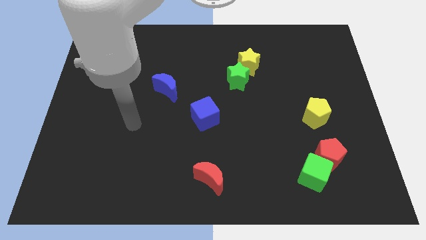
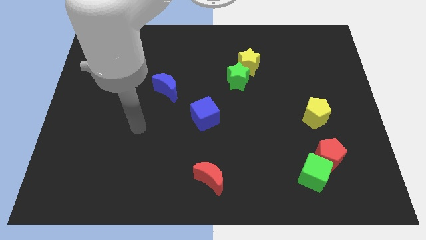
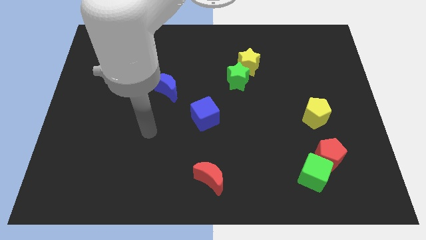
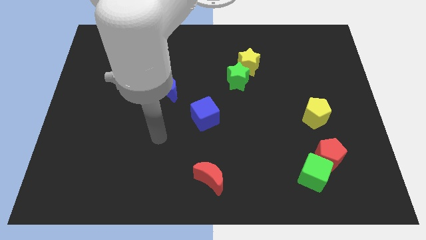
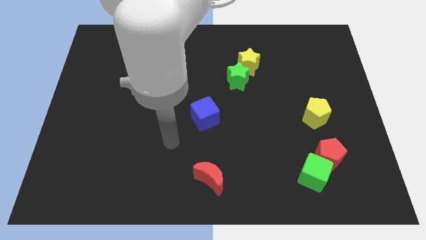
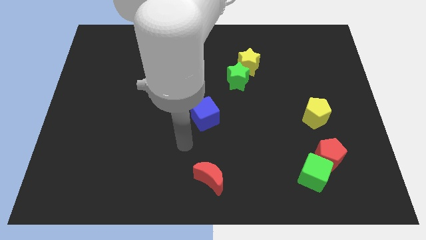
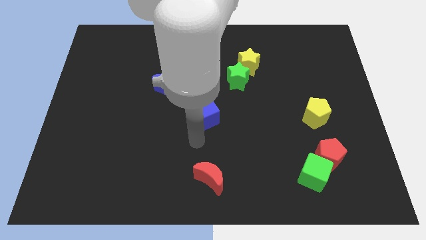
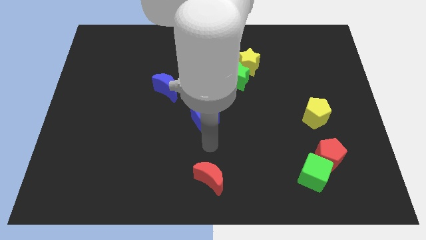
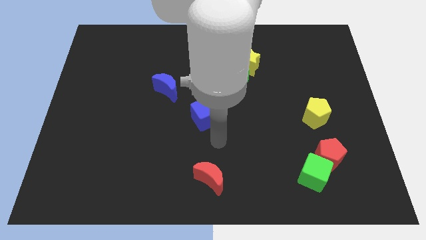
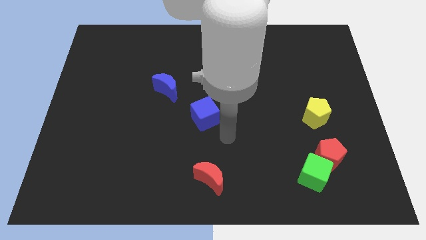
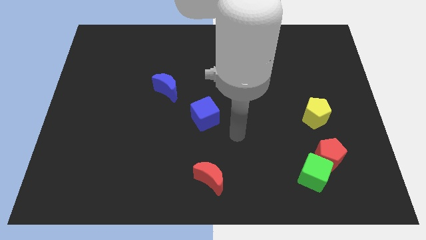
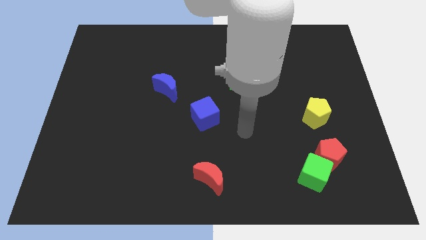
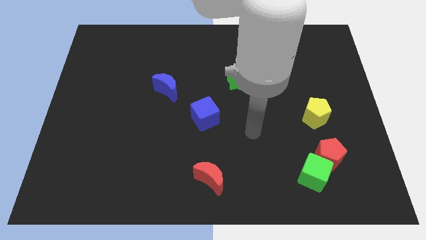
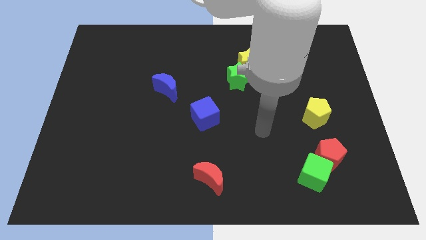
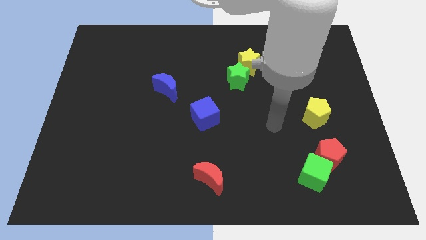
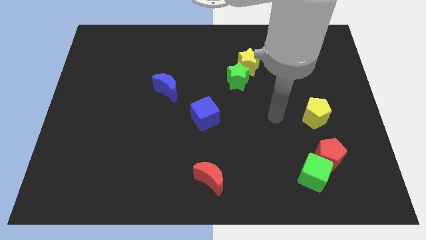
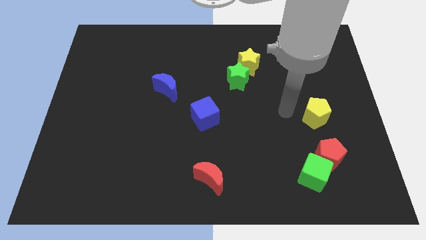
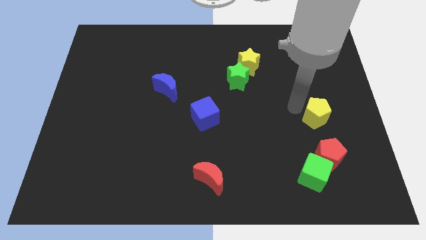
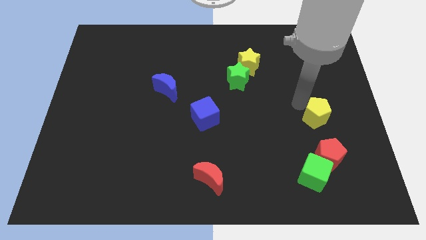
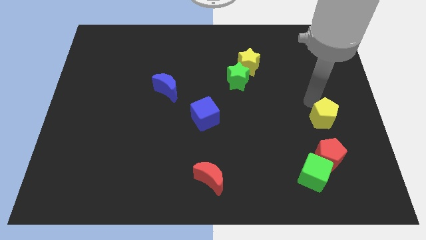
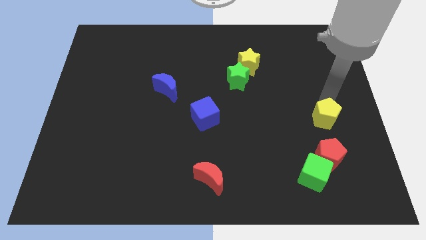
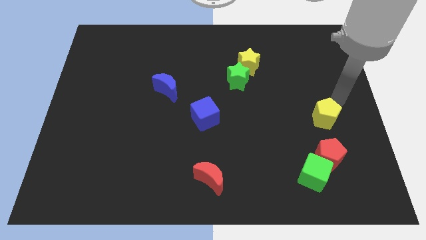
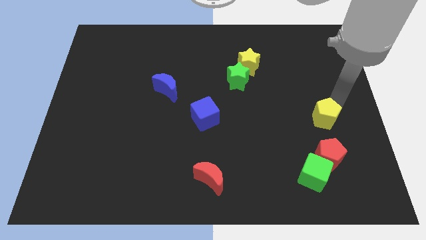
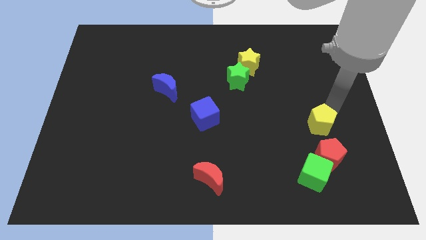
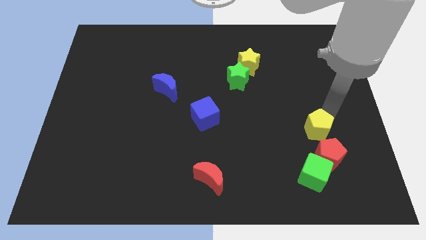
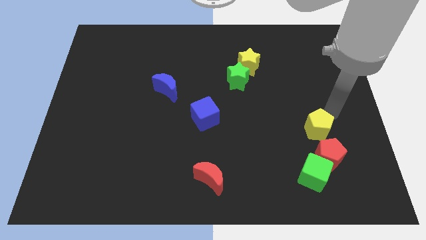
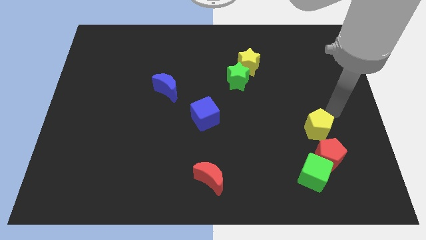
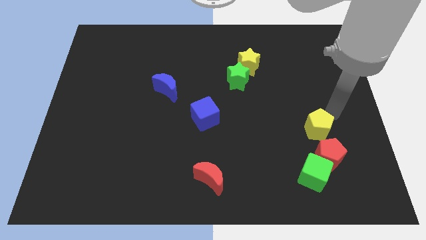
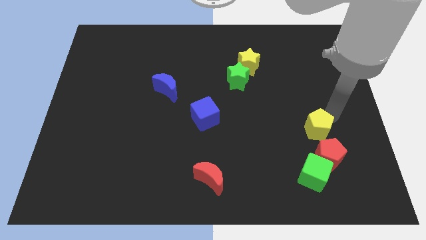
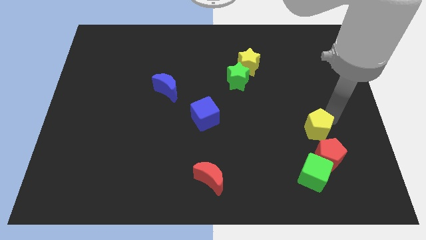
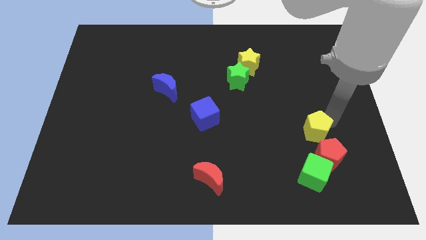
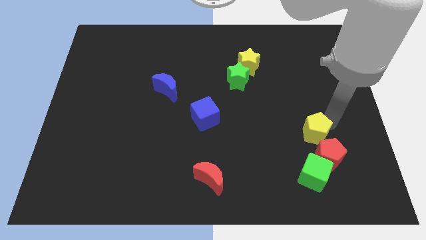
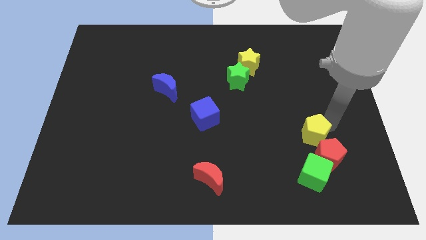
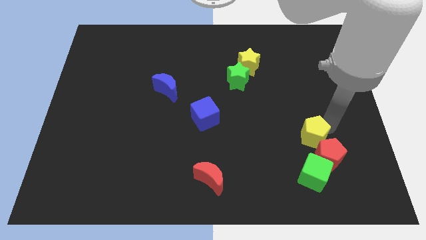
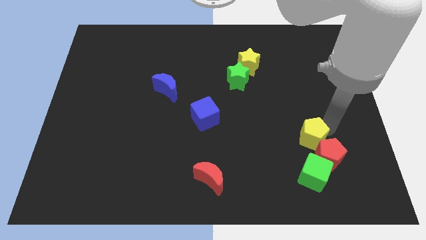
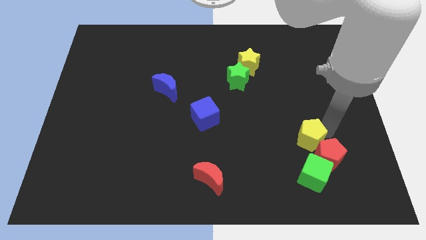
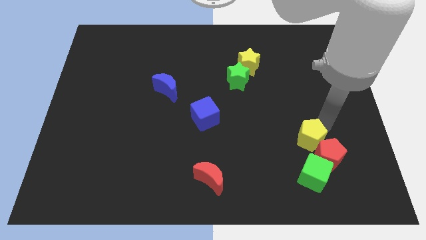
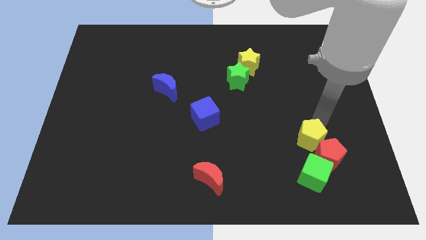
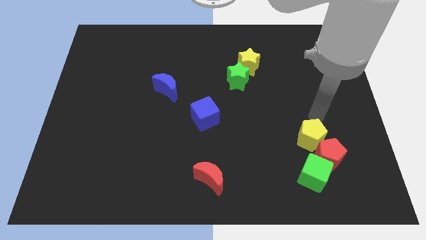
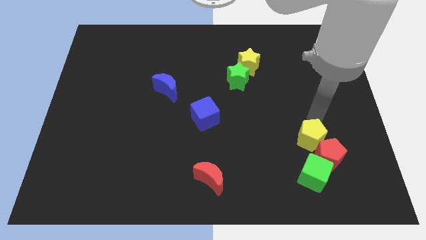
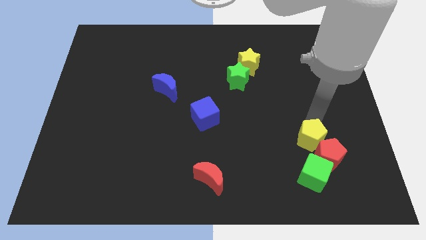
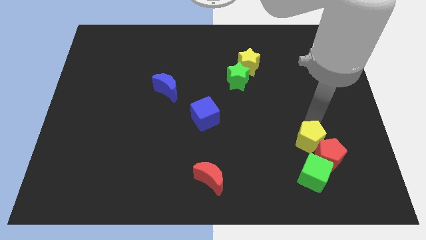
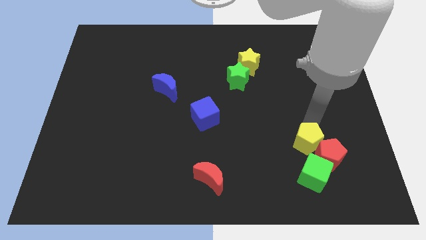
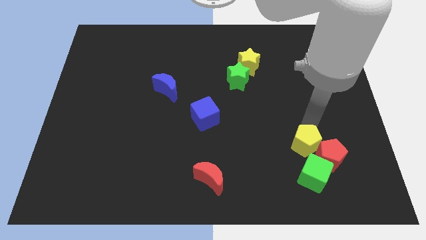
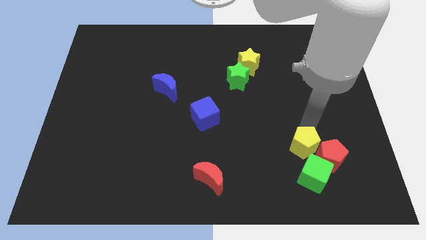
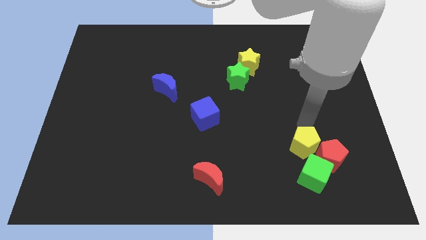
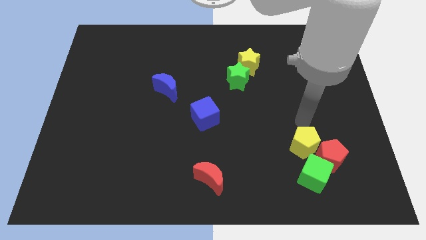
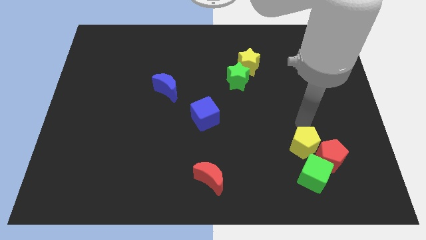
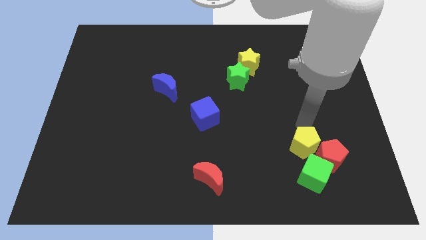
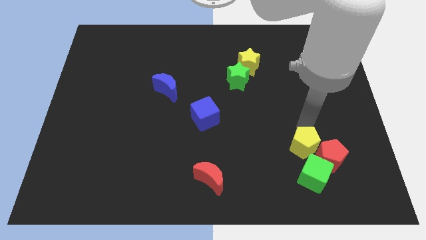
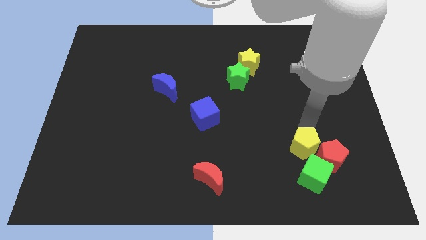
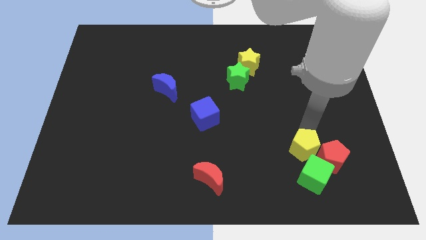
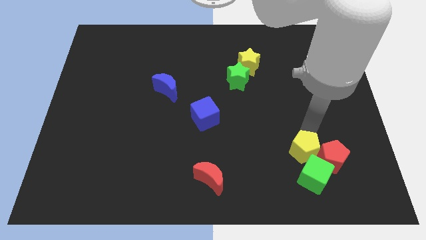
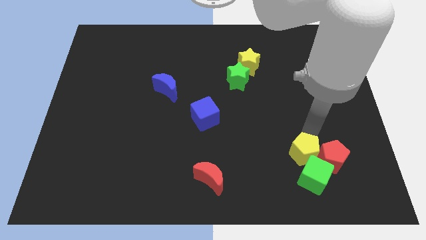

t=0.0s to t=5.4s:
move the yellow pentagon to the green cube

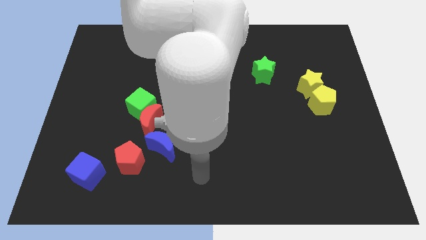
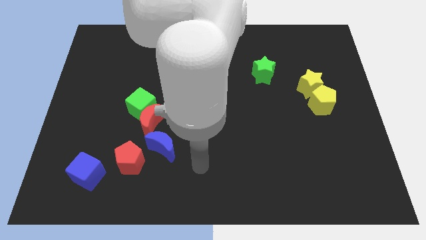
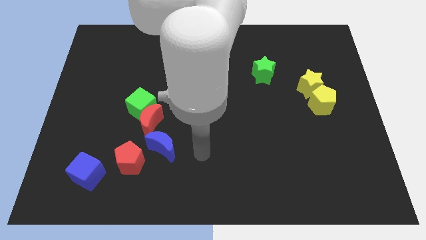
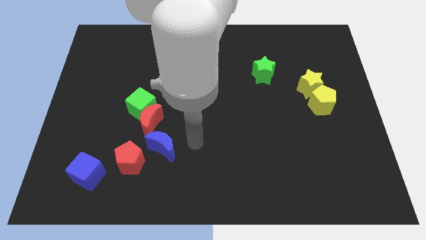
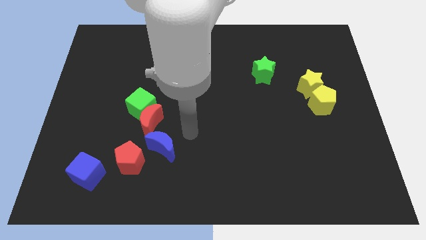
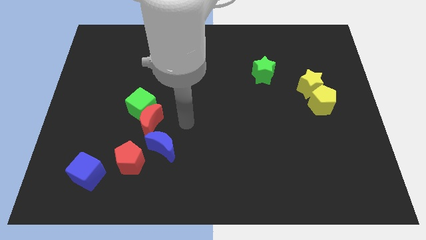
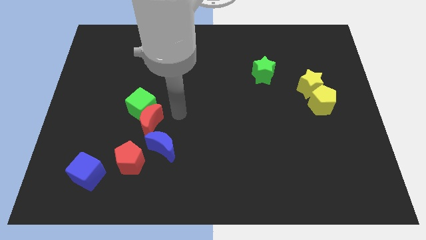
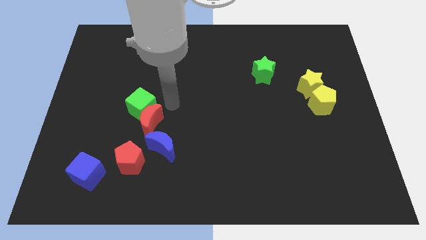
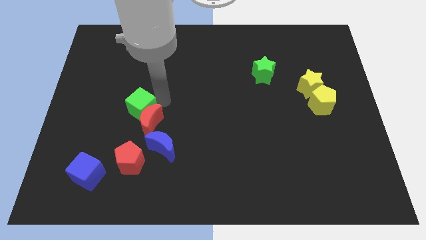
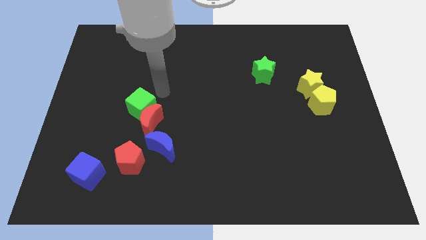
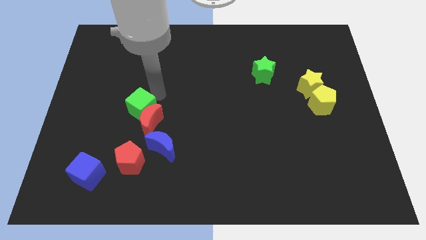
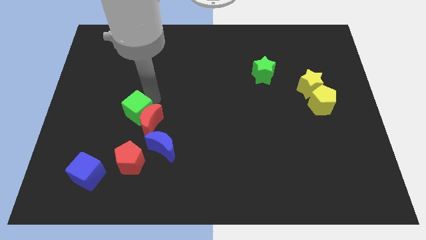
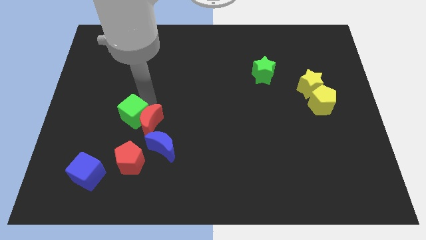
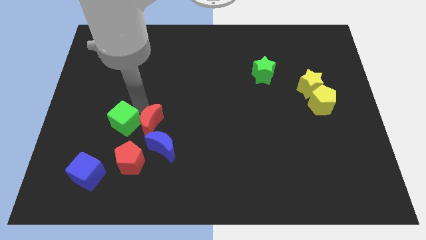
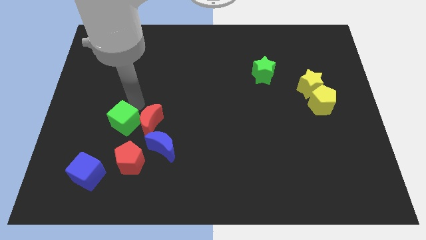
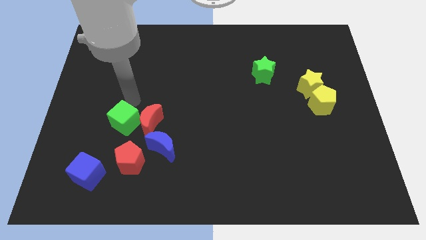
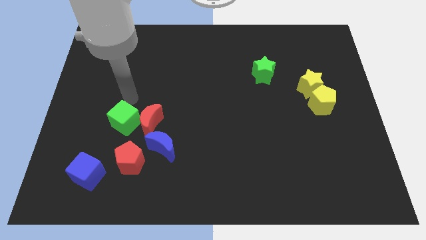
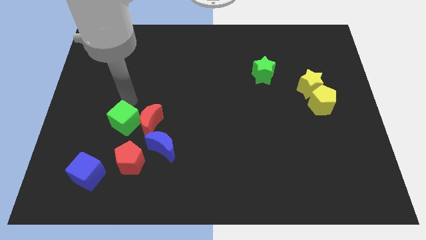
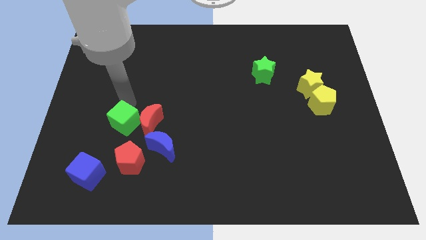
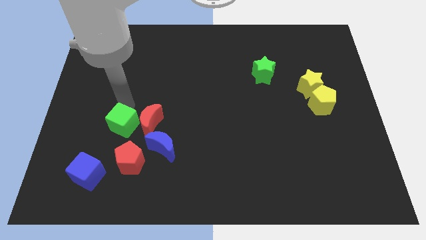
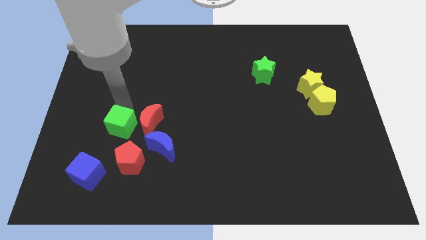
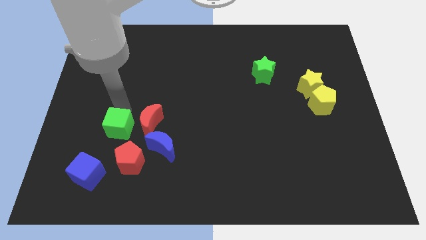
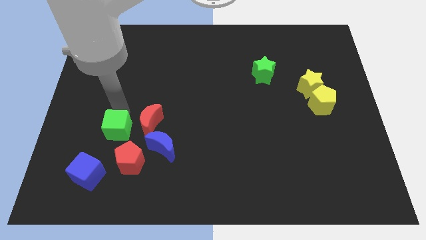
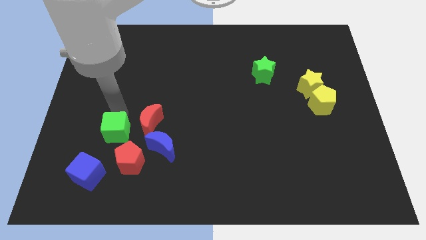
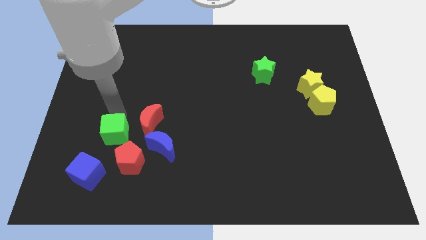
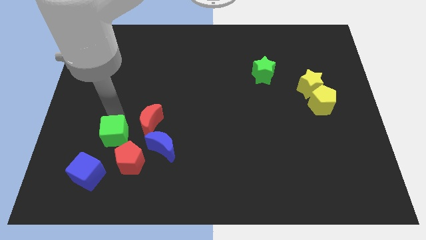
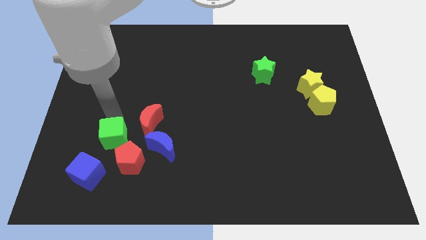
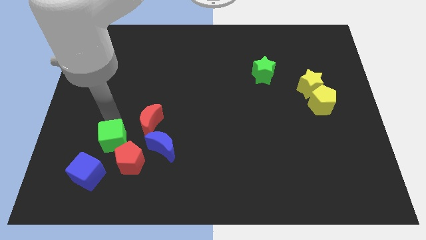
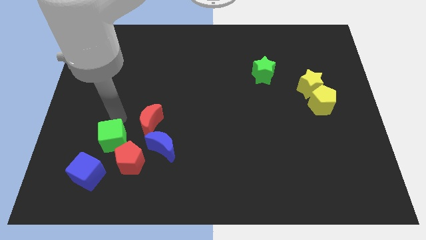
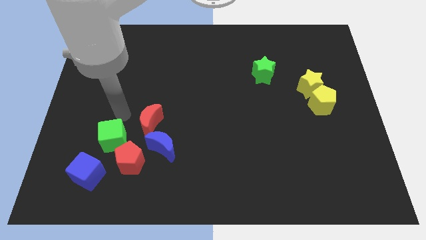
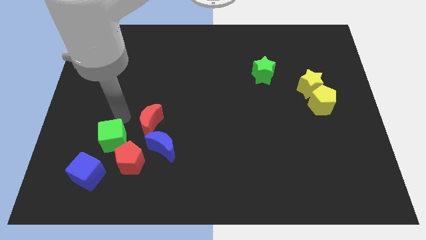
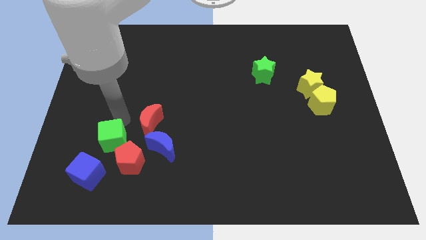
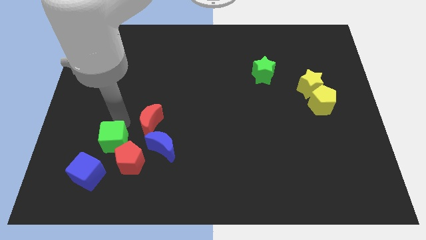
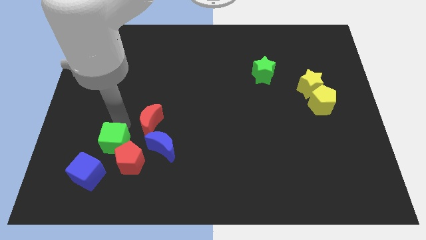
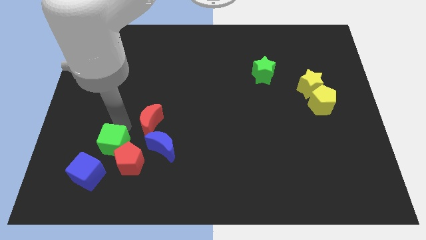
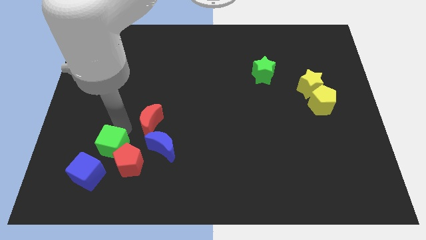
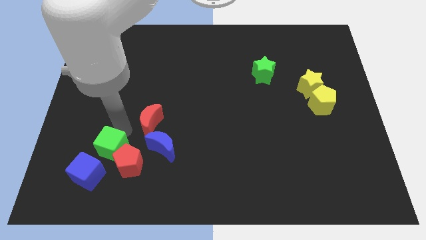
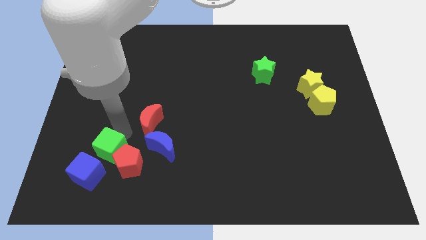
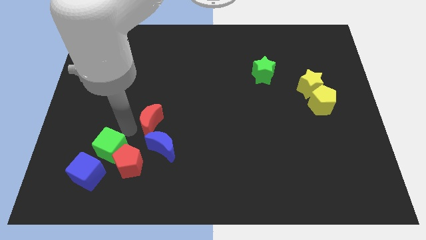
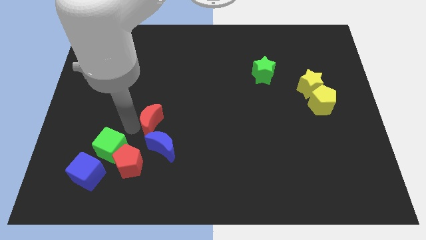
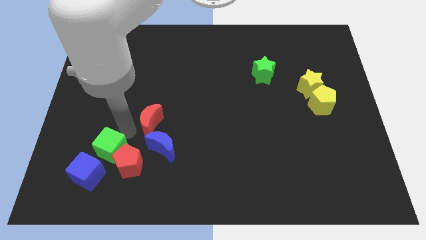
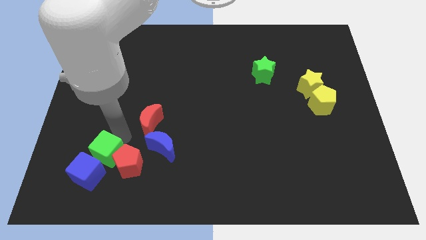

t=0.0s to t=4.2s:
push the green cube next to the blue cube
